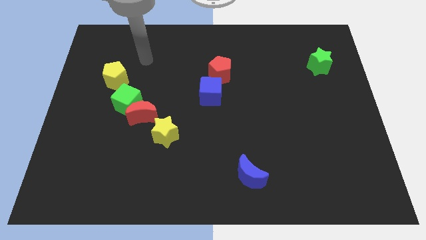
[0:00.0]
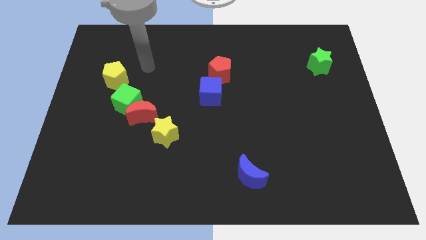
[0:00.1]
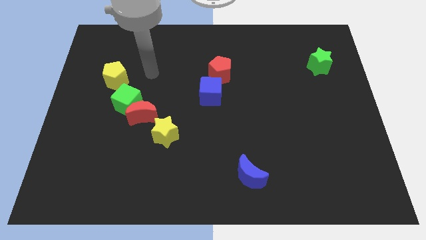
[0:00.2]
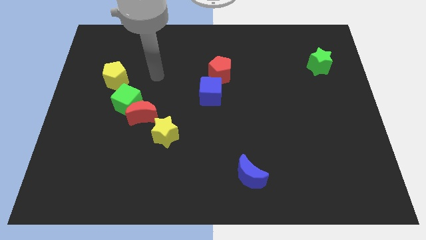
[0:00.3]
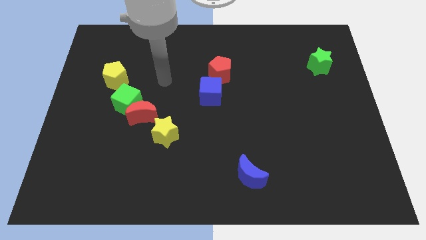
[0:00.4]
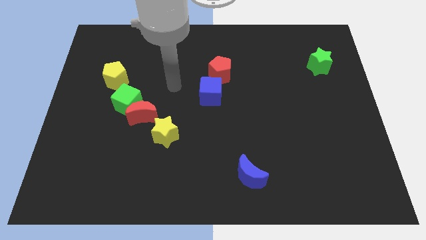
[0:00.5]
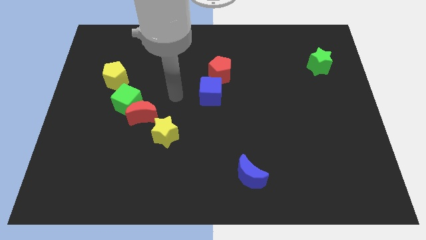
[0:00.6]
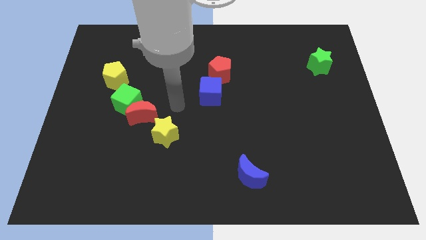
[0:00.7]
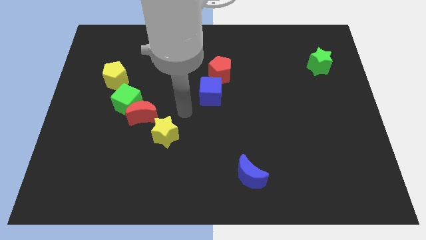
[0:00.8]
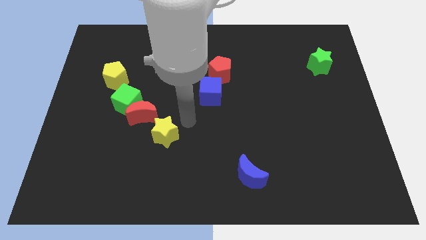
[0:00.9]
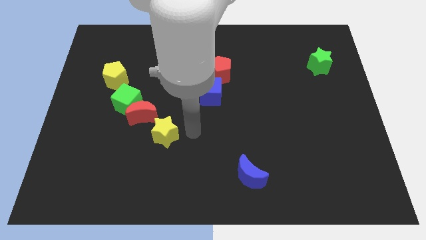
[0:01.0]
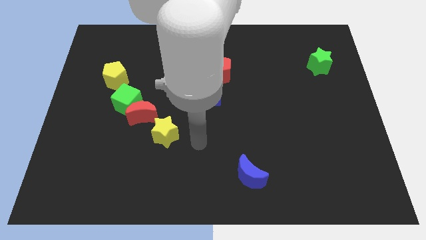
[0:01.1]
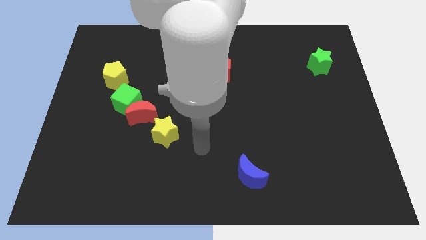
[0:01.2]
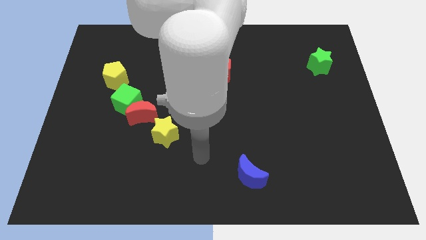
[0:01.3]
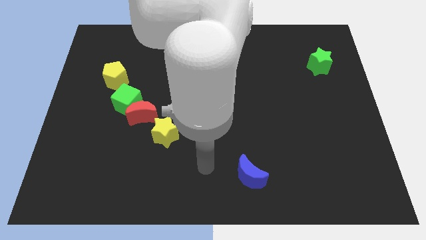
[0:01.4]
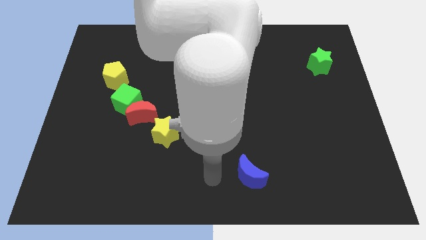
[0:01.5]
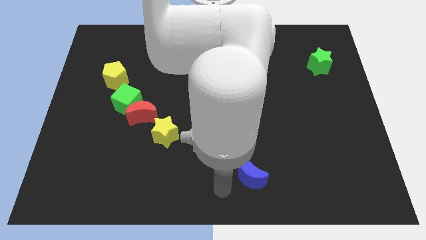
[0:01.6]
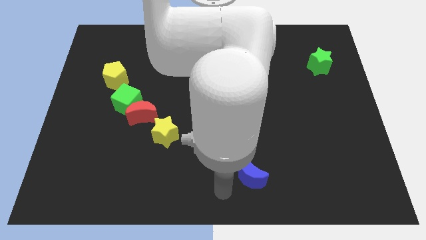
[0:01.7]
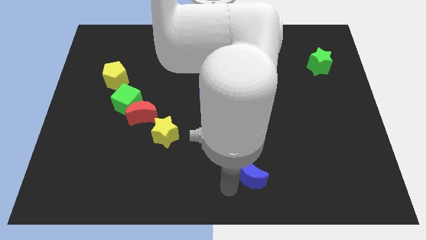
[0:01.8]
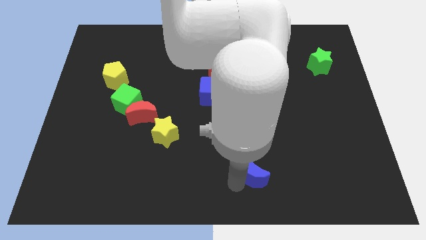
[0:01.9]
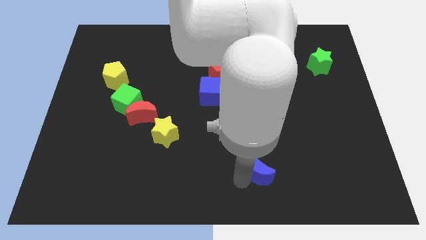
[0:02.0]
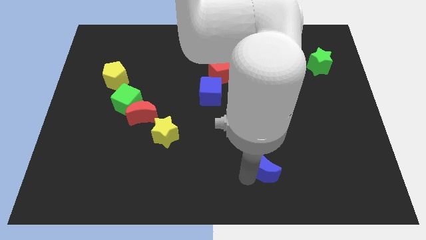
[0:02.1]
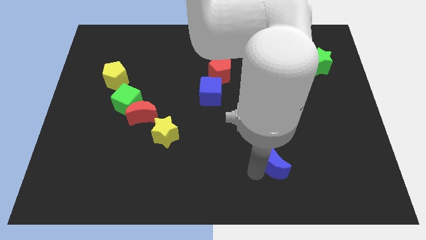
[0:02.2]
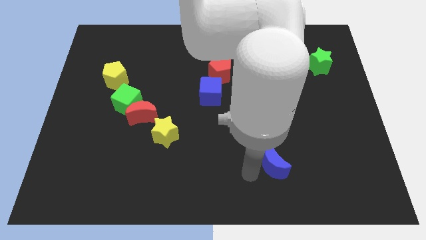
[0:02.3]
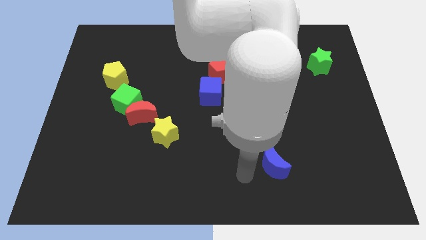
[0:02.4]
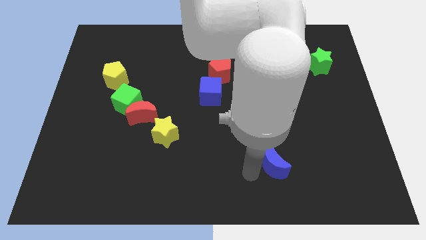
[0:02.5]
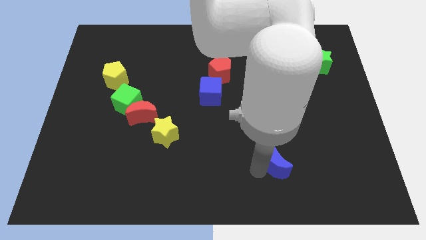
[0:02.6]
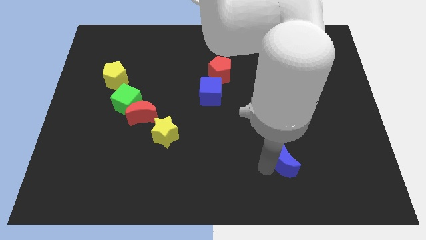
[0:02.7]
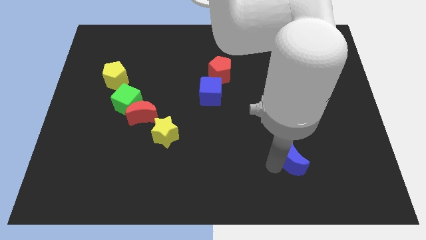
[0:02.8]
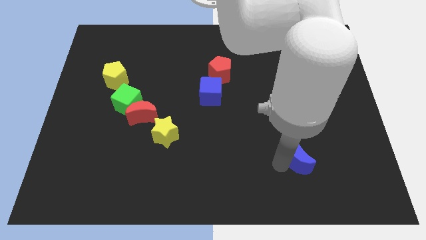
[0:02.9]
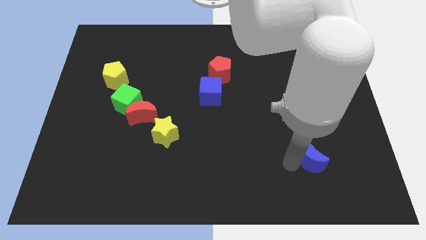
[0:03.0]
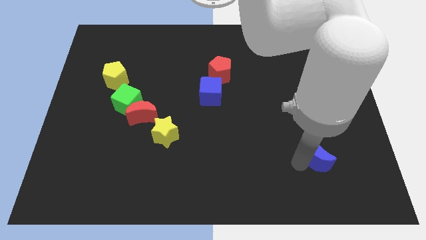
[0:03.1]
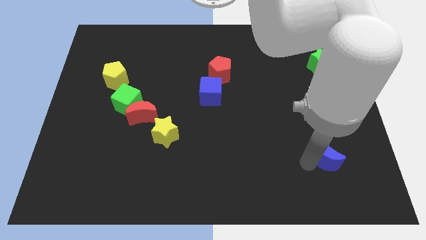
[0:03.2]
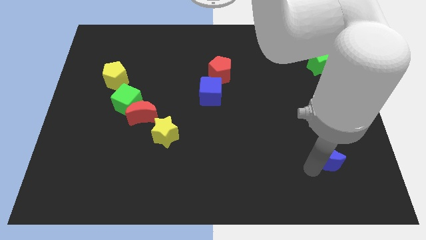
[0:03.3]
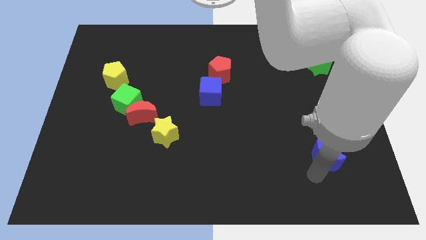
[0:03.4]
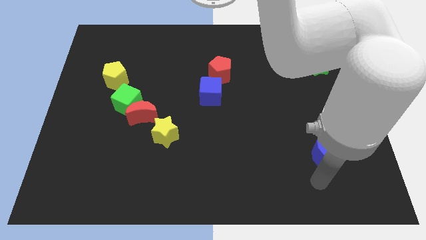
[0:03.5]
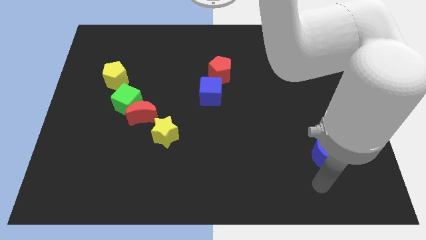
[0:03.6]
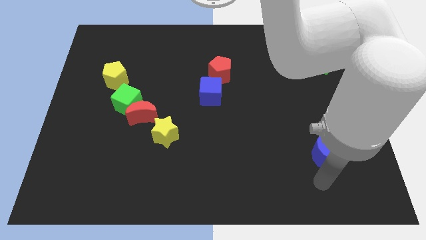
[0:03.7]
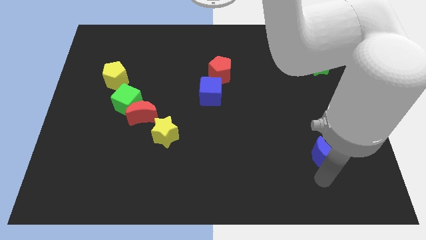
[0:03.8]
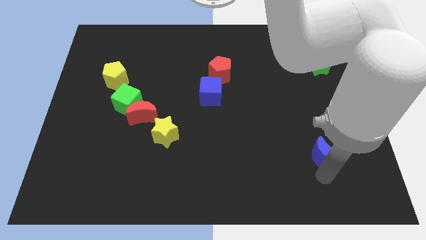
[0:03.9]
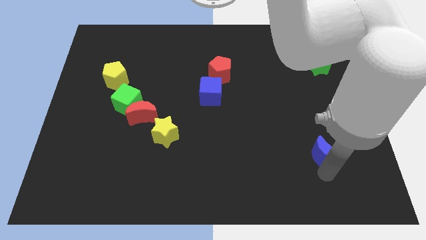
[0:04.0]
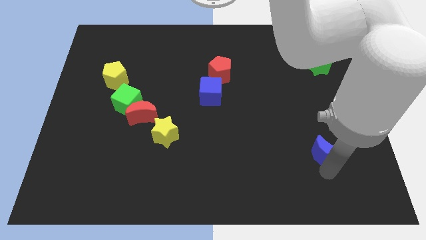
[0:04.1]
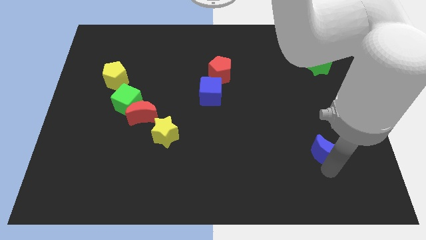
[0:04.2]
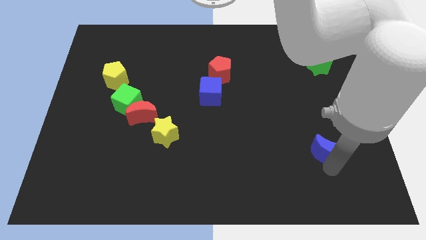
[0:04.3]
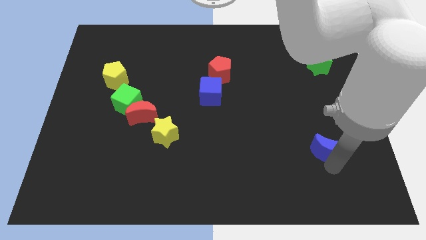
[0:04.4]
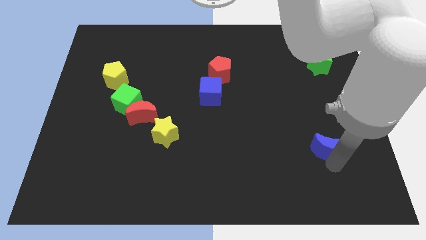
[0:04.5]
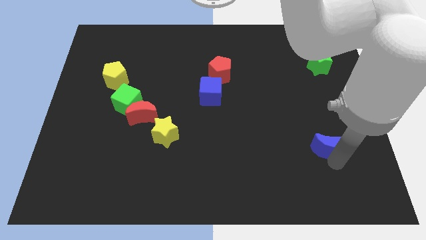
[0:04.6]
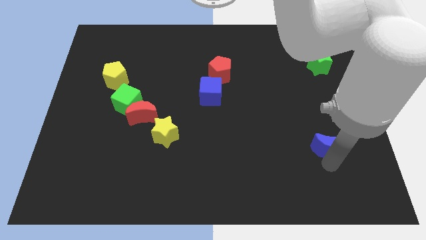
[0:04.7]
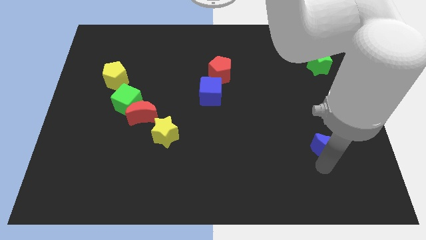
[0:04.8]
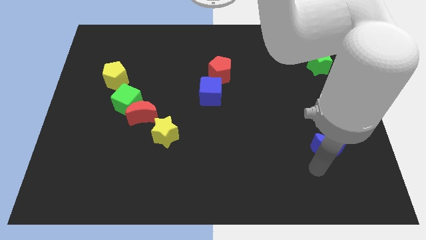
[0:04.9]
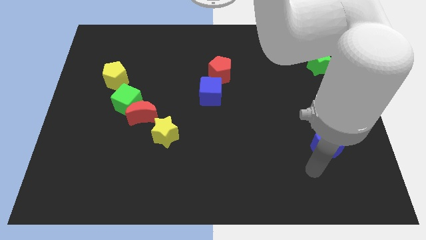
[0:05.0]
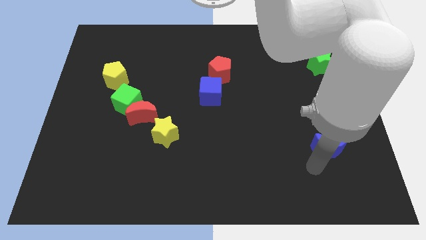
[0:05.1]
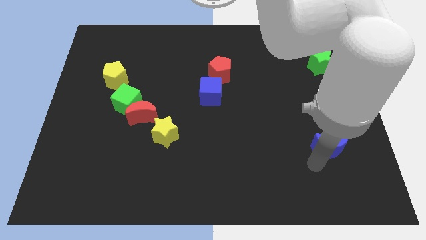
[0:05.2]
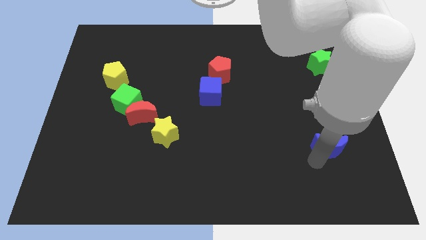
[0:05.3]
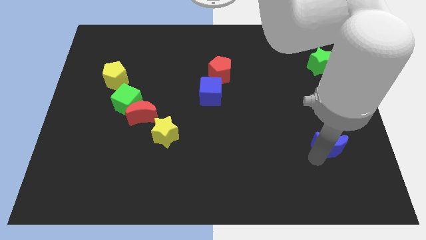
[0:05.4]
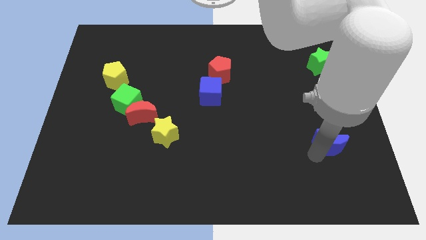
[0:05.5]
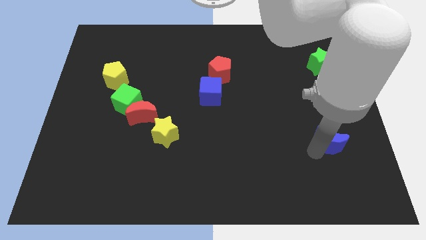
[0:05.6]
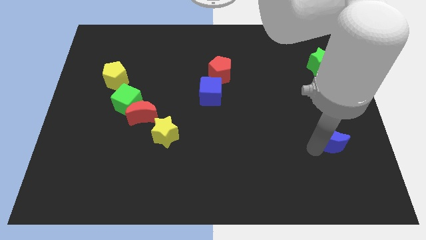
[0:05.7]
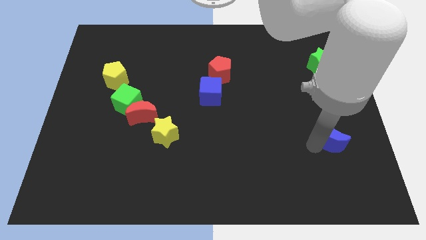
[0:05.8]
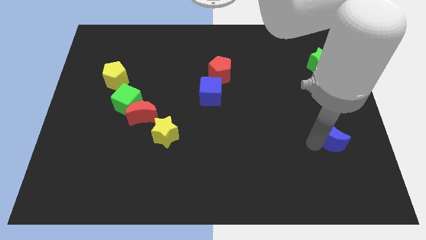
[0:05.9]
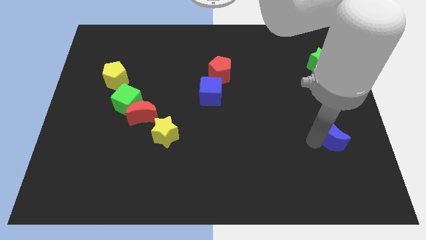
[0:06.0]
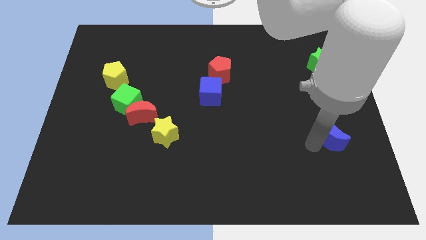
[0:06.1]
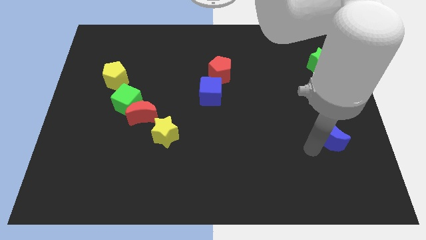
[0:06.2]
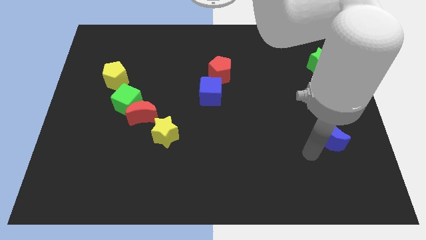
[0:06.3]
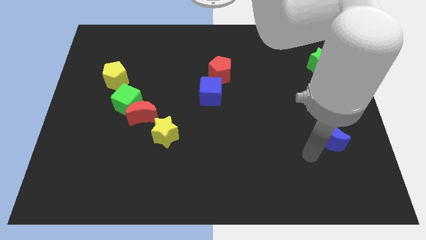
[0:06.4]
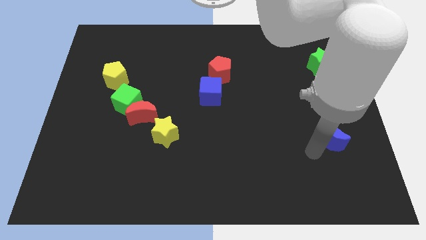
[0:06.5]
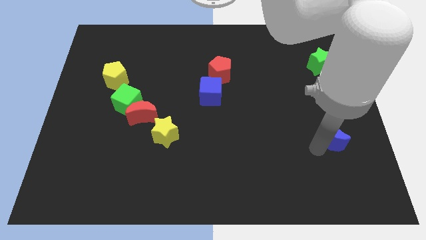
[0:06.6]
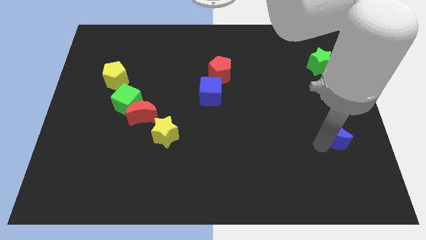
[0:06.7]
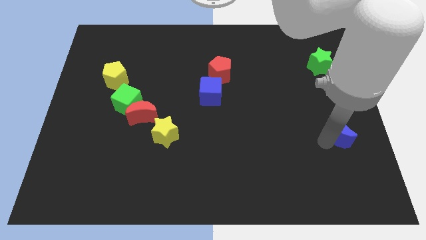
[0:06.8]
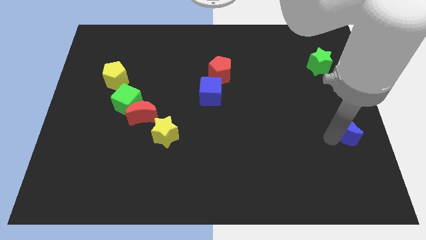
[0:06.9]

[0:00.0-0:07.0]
slide the blue moon to the right side
